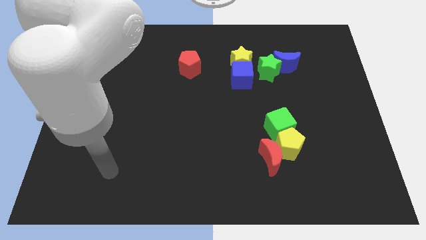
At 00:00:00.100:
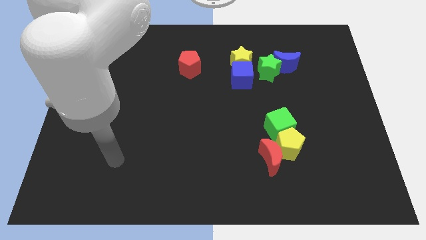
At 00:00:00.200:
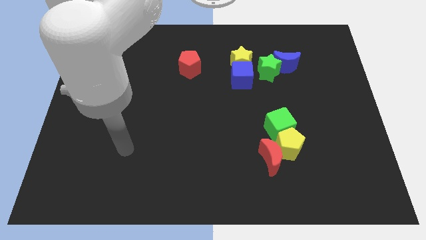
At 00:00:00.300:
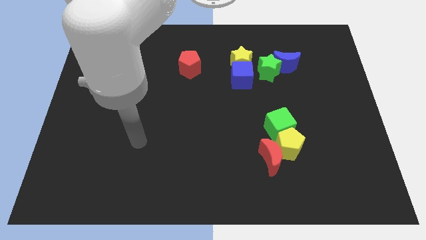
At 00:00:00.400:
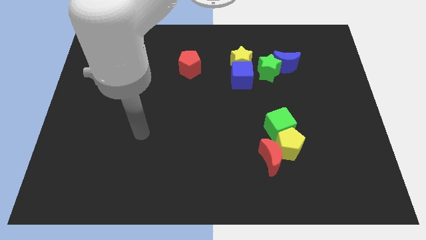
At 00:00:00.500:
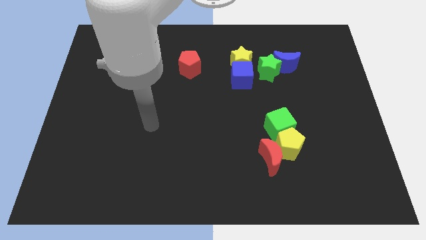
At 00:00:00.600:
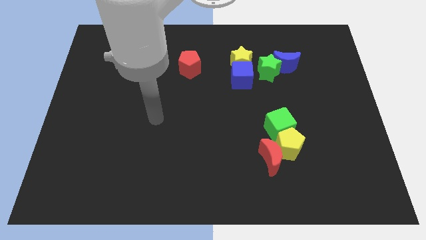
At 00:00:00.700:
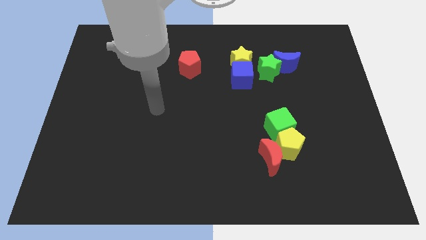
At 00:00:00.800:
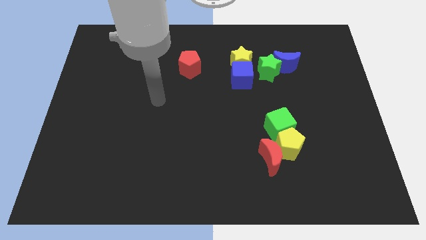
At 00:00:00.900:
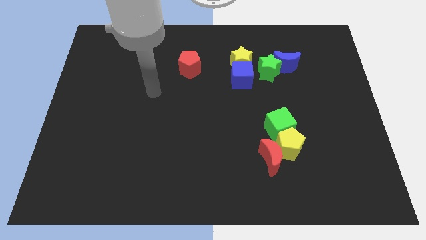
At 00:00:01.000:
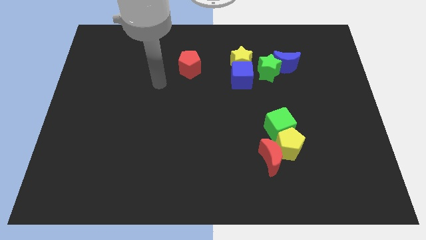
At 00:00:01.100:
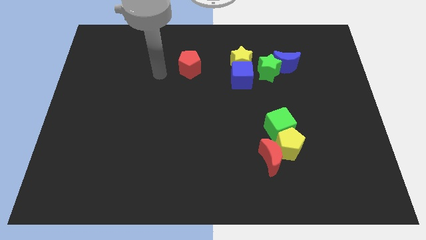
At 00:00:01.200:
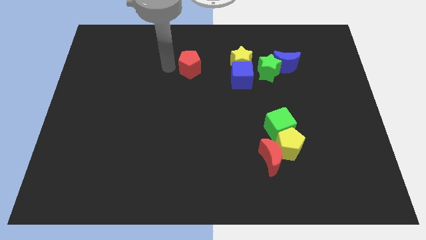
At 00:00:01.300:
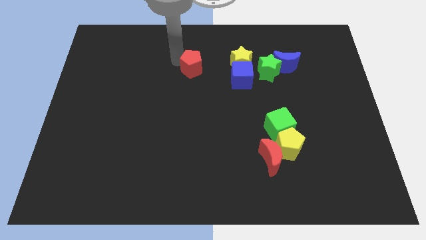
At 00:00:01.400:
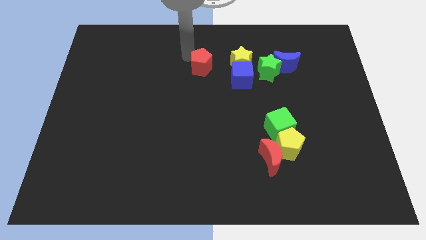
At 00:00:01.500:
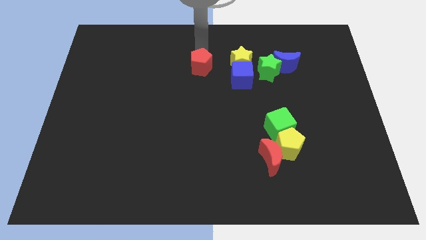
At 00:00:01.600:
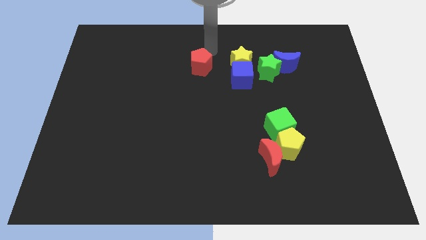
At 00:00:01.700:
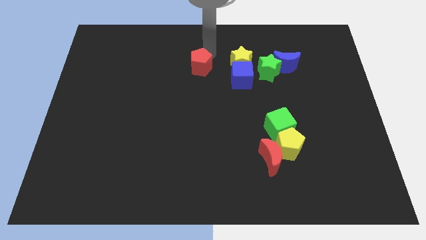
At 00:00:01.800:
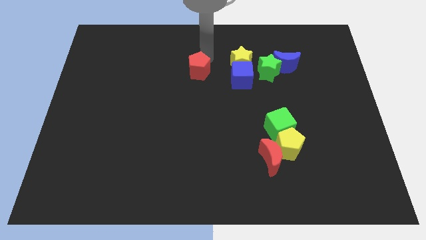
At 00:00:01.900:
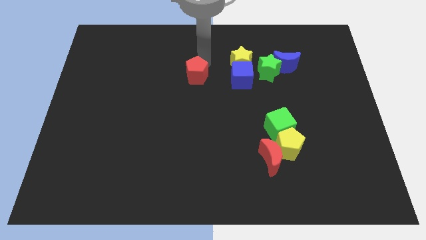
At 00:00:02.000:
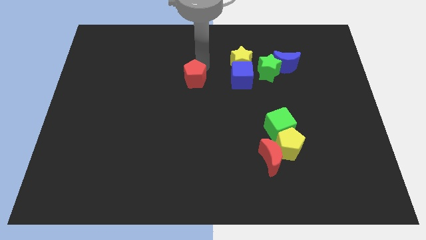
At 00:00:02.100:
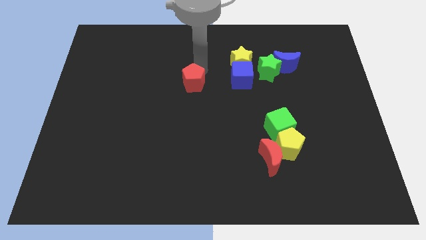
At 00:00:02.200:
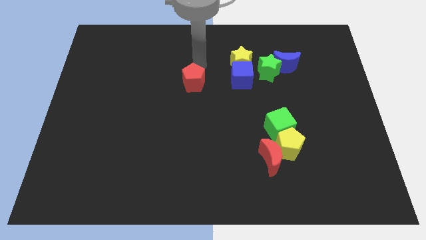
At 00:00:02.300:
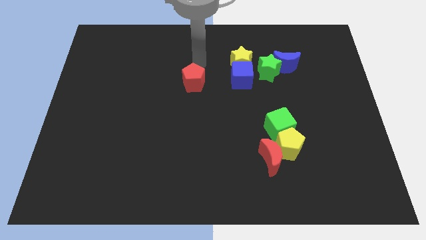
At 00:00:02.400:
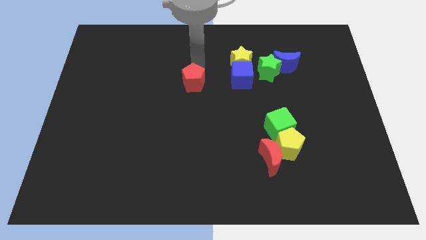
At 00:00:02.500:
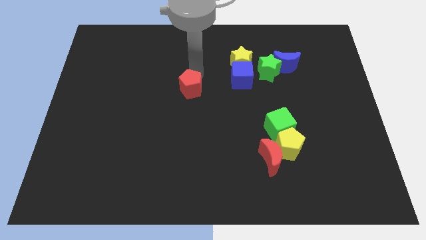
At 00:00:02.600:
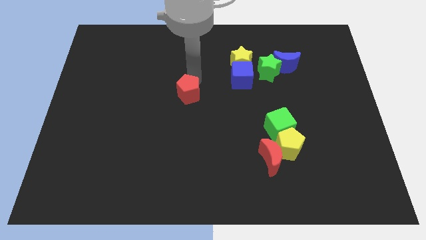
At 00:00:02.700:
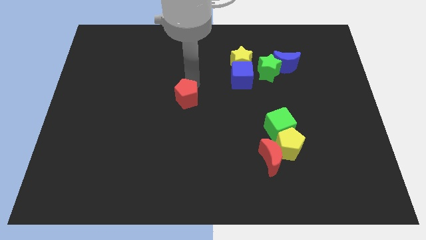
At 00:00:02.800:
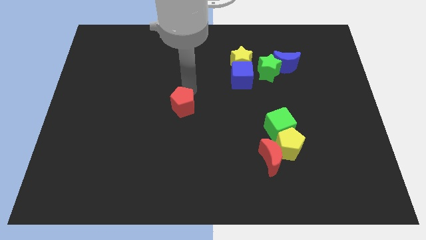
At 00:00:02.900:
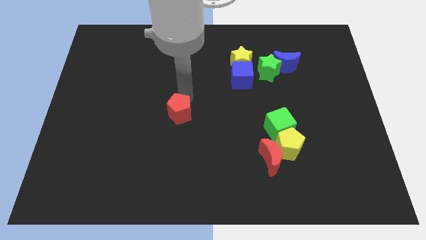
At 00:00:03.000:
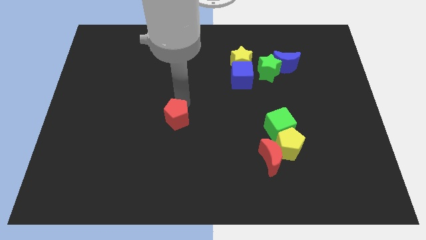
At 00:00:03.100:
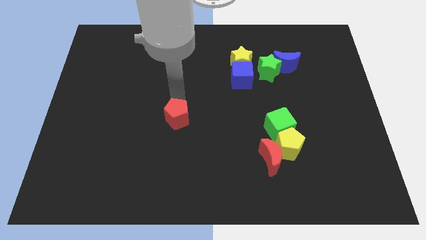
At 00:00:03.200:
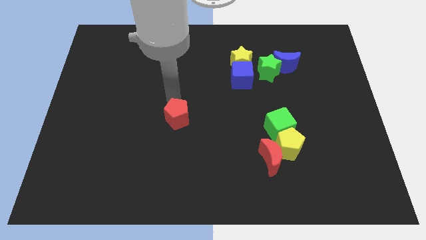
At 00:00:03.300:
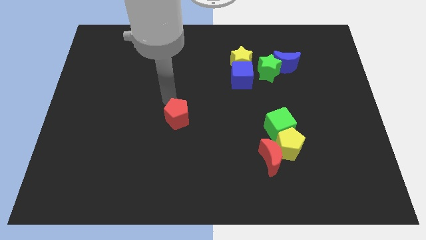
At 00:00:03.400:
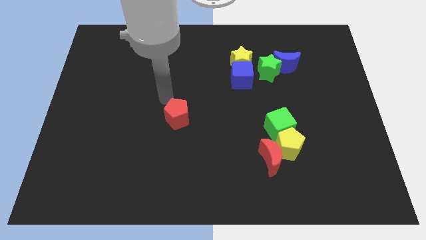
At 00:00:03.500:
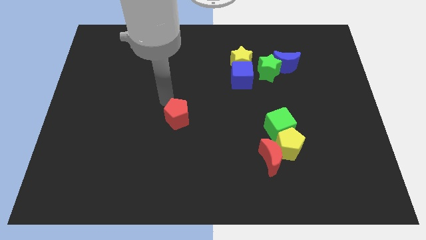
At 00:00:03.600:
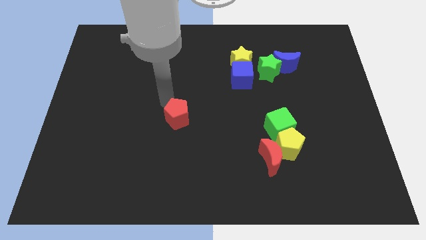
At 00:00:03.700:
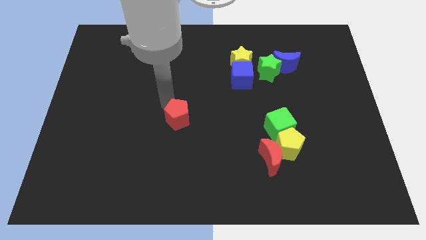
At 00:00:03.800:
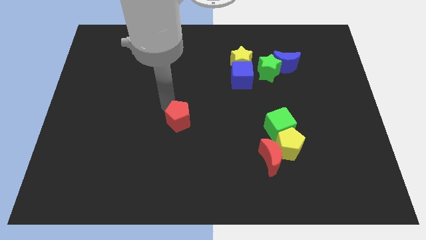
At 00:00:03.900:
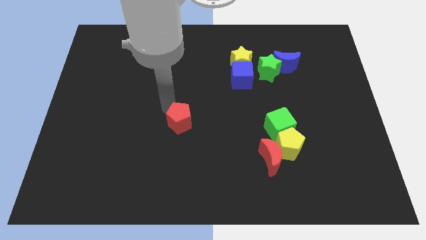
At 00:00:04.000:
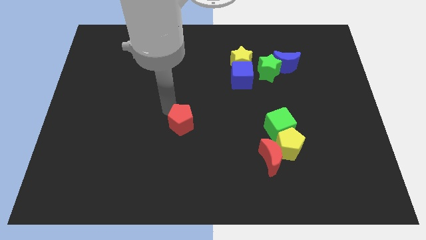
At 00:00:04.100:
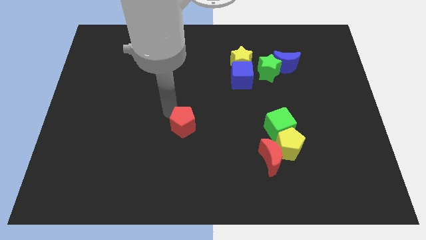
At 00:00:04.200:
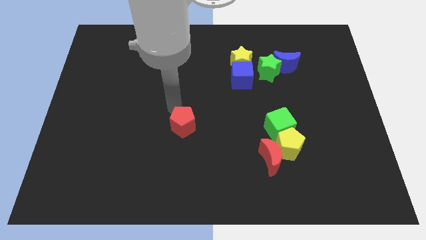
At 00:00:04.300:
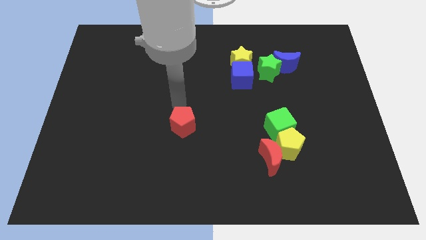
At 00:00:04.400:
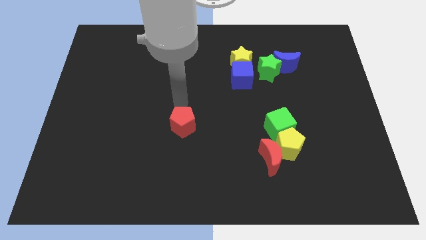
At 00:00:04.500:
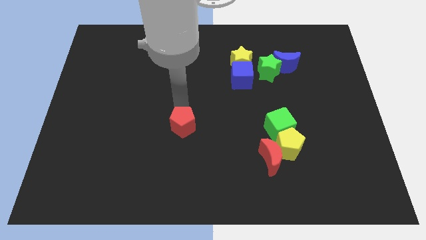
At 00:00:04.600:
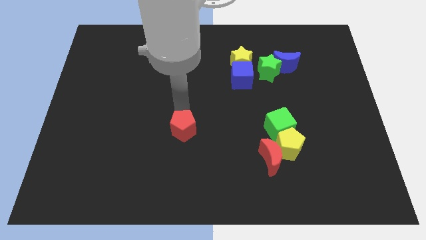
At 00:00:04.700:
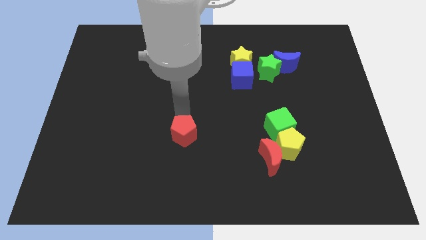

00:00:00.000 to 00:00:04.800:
move the red pentagon downwards

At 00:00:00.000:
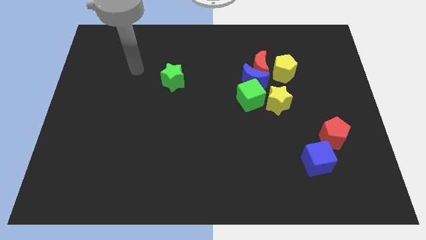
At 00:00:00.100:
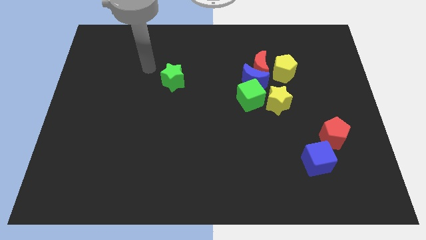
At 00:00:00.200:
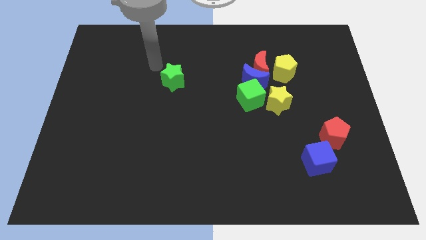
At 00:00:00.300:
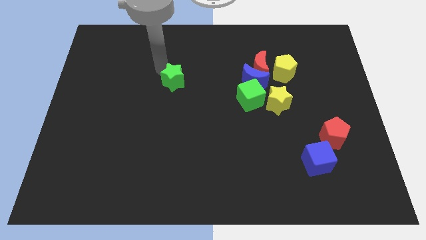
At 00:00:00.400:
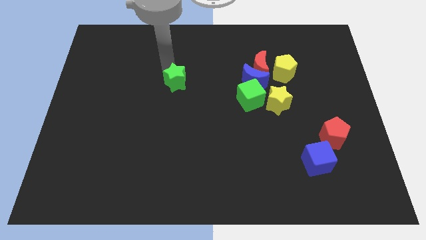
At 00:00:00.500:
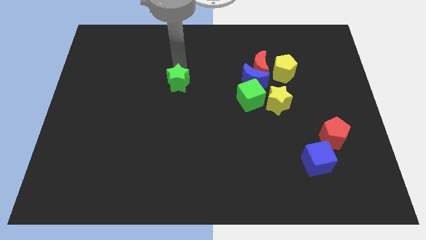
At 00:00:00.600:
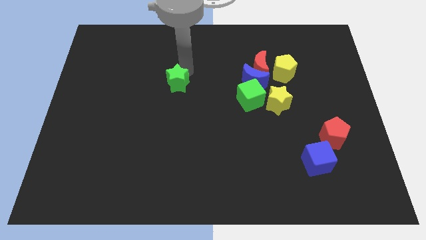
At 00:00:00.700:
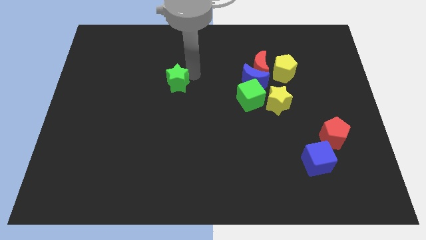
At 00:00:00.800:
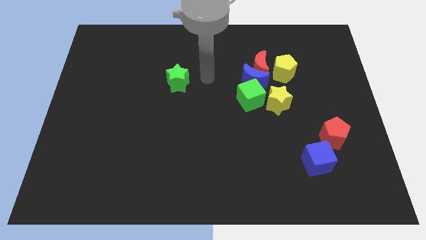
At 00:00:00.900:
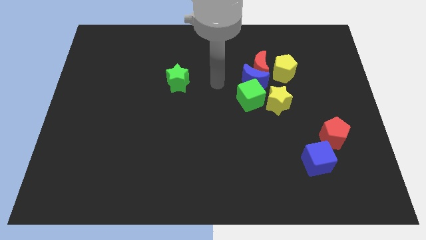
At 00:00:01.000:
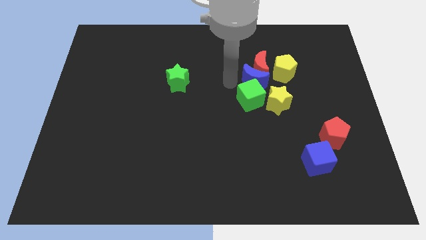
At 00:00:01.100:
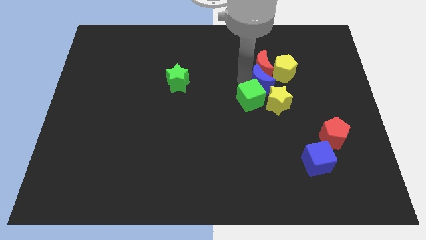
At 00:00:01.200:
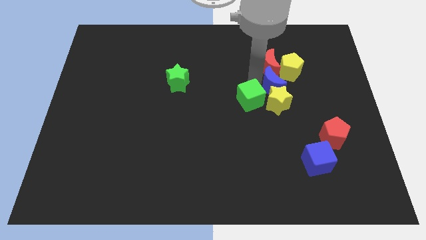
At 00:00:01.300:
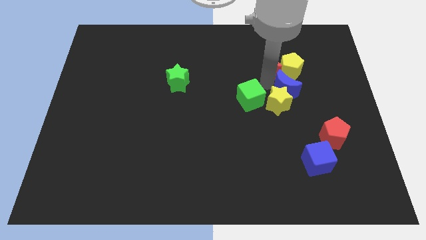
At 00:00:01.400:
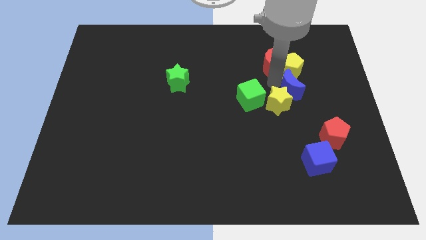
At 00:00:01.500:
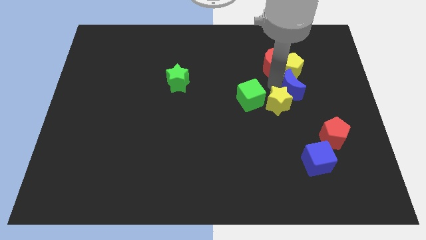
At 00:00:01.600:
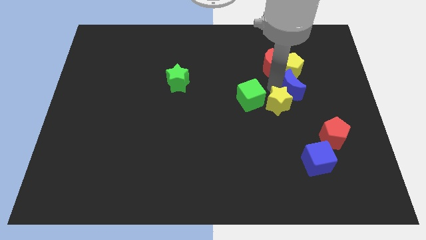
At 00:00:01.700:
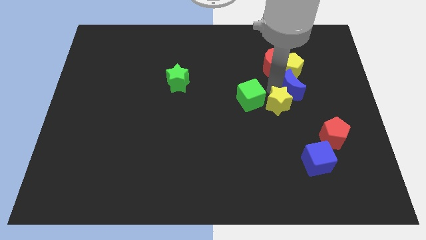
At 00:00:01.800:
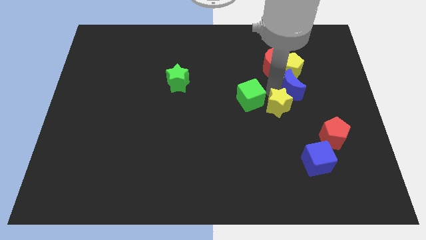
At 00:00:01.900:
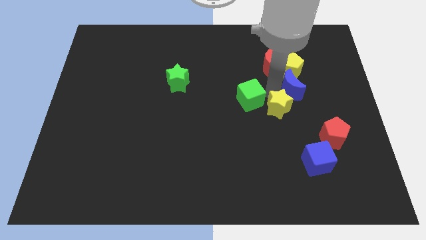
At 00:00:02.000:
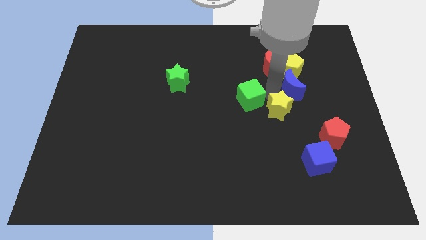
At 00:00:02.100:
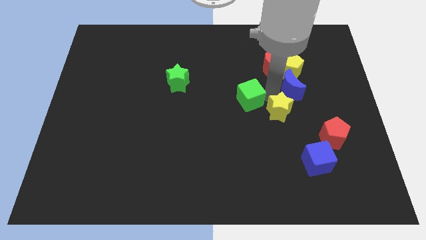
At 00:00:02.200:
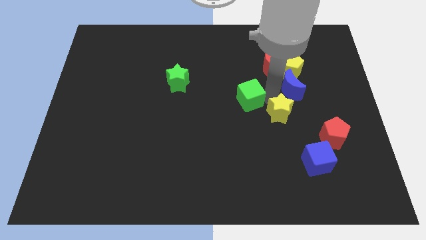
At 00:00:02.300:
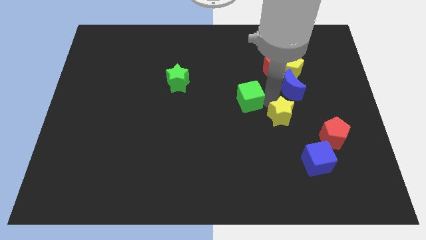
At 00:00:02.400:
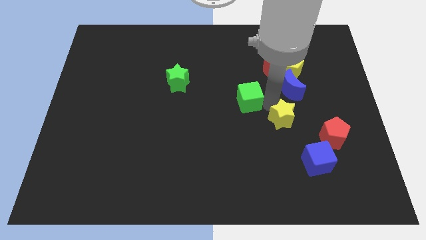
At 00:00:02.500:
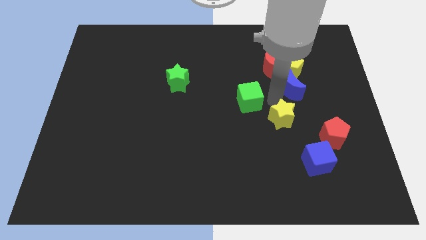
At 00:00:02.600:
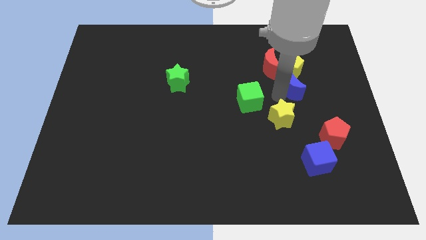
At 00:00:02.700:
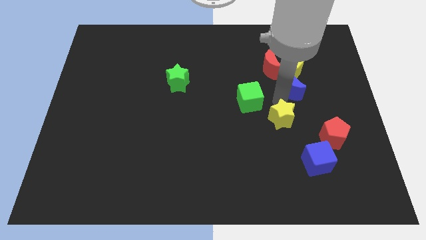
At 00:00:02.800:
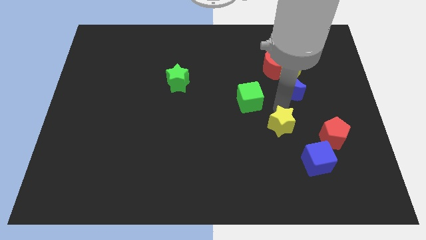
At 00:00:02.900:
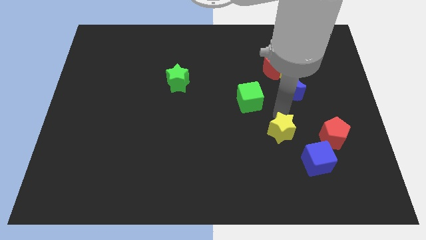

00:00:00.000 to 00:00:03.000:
move the yellow star somewhat downwards

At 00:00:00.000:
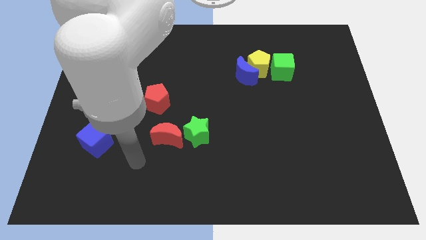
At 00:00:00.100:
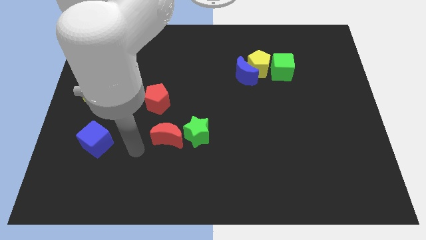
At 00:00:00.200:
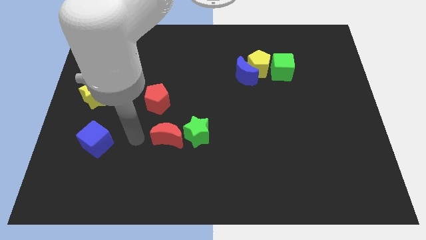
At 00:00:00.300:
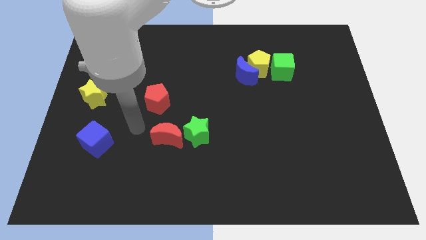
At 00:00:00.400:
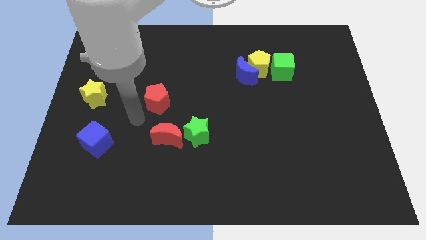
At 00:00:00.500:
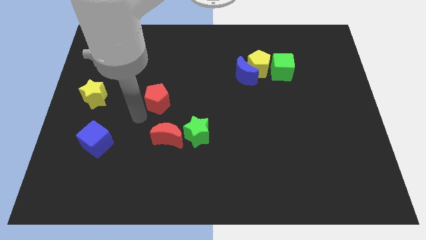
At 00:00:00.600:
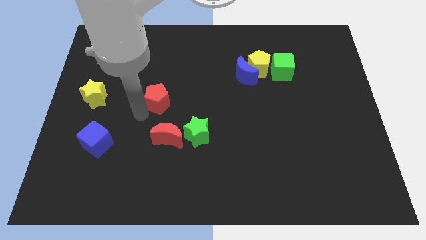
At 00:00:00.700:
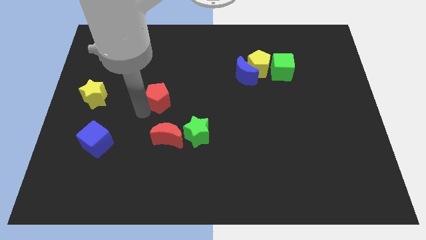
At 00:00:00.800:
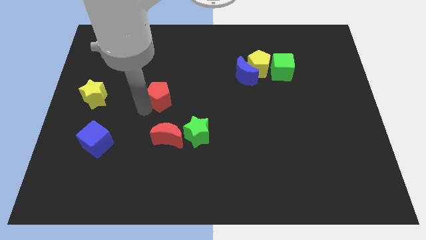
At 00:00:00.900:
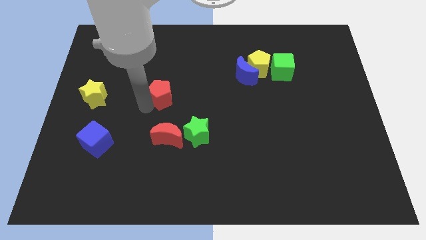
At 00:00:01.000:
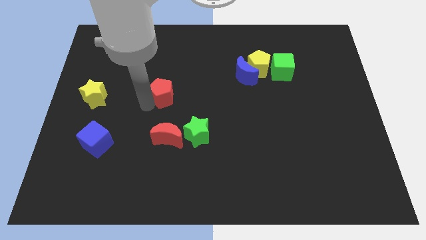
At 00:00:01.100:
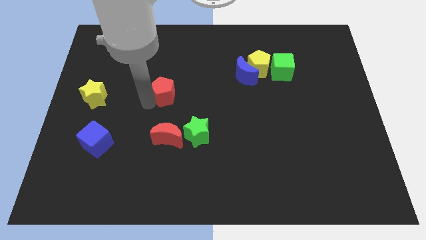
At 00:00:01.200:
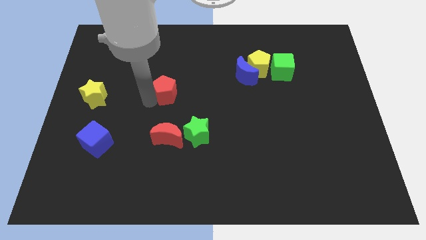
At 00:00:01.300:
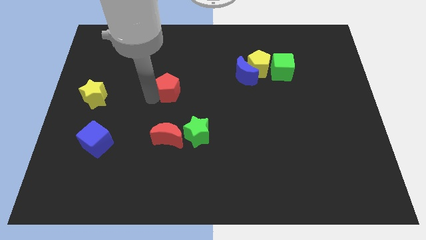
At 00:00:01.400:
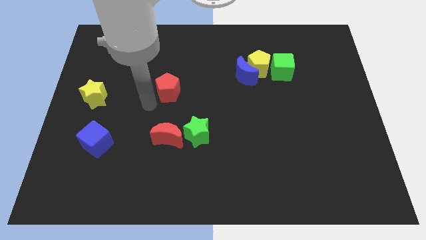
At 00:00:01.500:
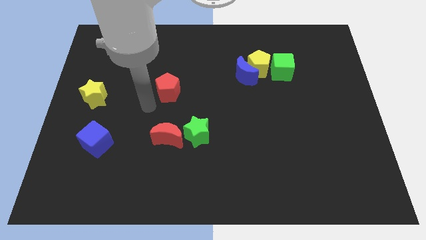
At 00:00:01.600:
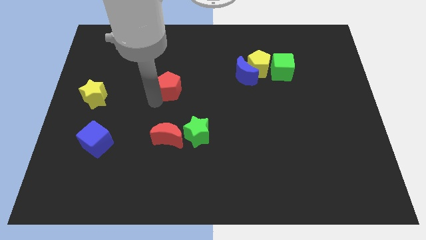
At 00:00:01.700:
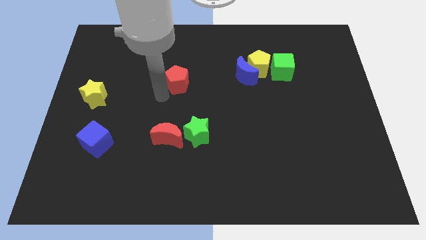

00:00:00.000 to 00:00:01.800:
move the red pentagon diagonally upwards and to the right a bit
